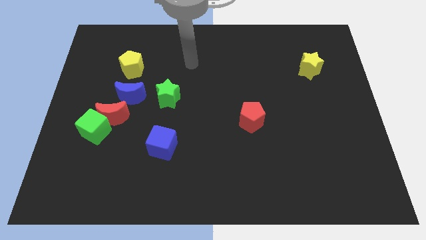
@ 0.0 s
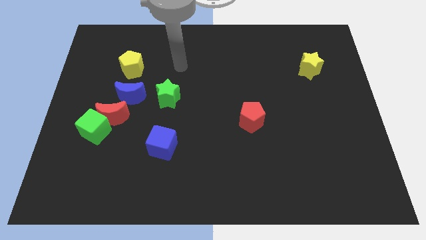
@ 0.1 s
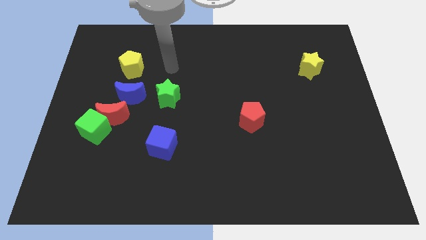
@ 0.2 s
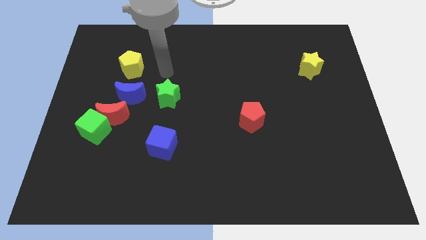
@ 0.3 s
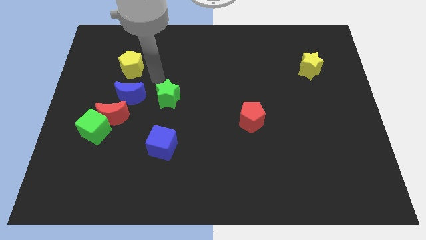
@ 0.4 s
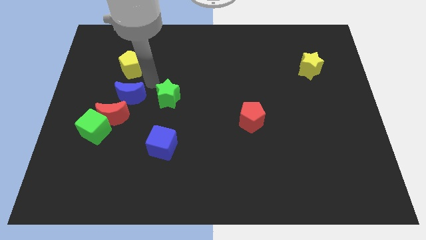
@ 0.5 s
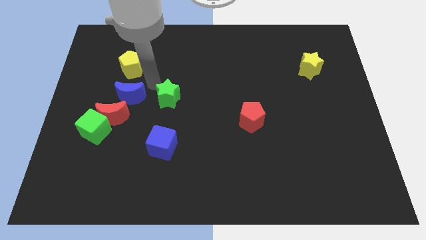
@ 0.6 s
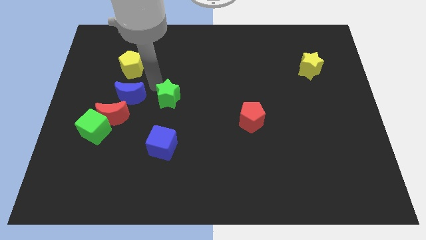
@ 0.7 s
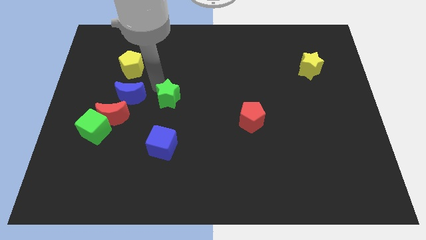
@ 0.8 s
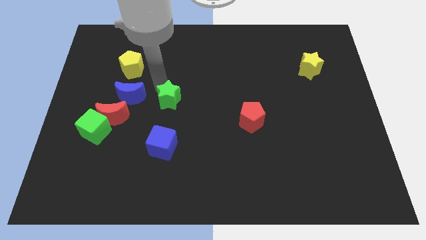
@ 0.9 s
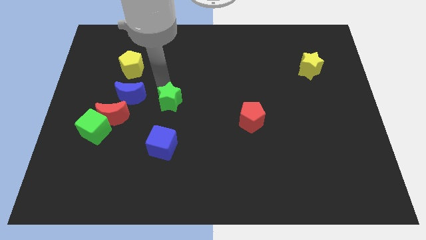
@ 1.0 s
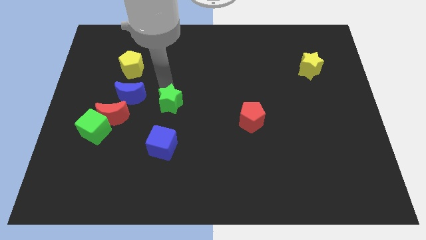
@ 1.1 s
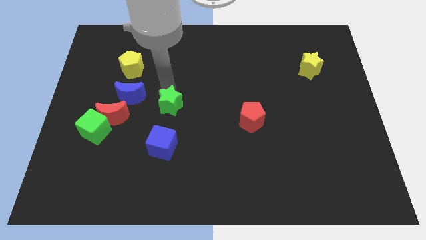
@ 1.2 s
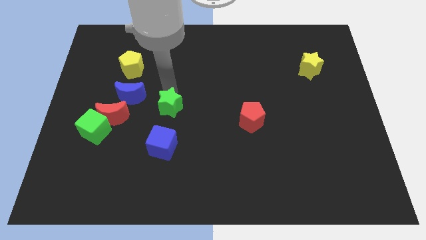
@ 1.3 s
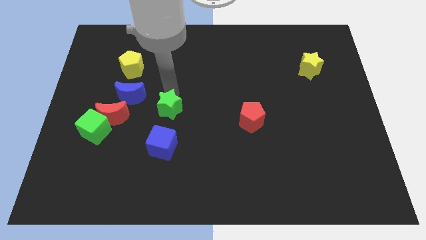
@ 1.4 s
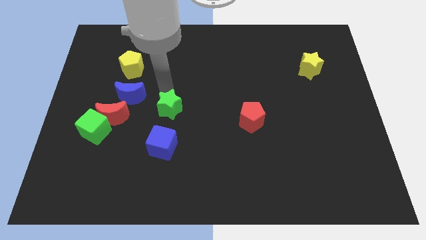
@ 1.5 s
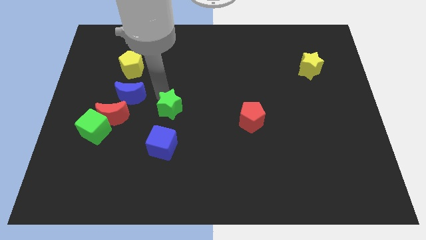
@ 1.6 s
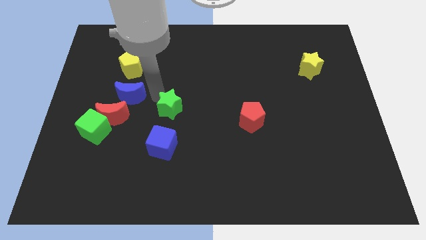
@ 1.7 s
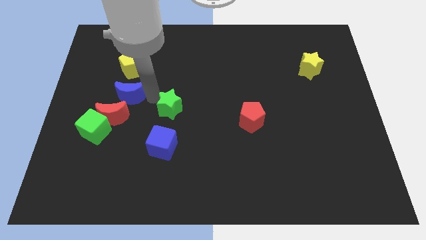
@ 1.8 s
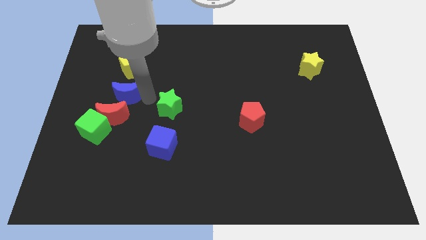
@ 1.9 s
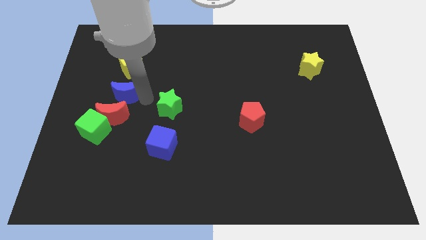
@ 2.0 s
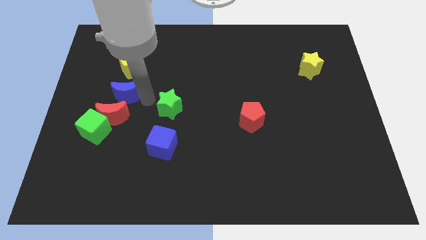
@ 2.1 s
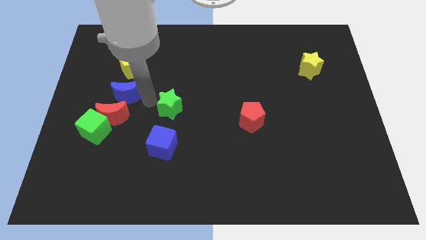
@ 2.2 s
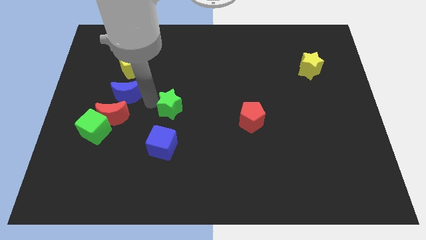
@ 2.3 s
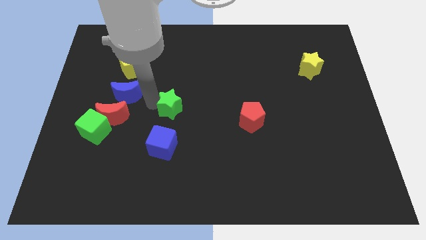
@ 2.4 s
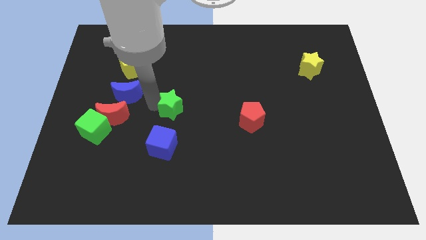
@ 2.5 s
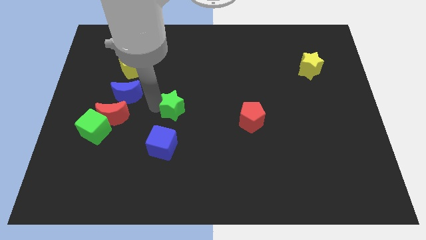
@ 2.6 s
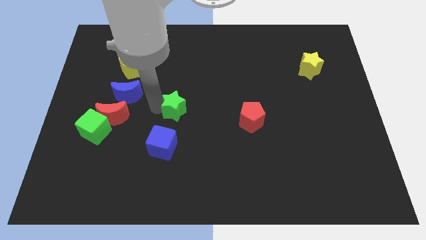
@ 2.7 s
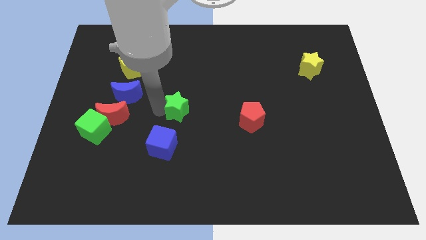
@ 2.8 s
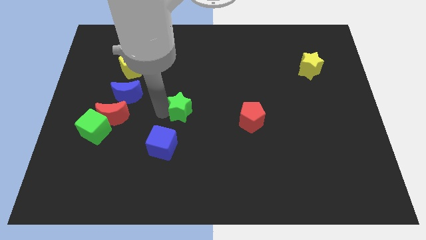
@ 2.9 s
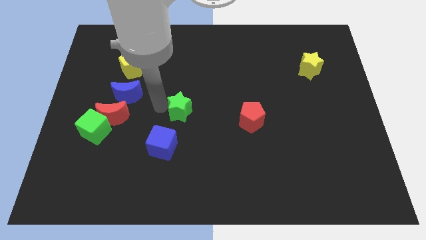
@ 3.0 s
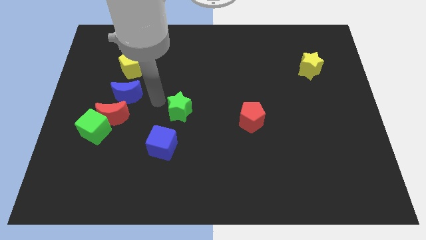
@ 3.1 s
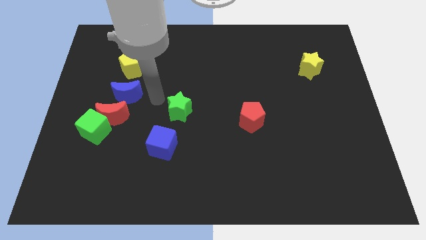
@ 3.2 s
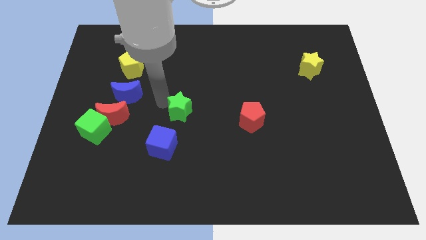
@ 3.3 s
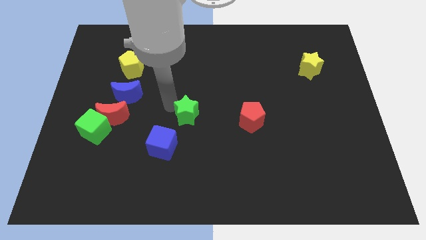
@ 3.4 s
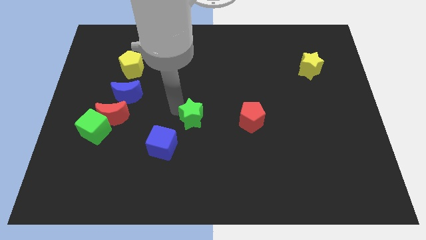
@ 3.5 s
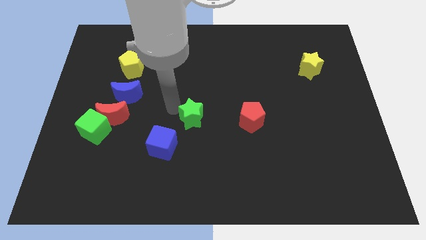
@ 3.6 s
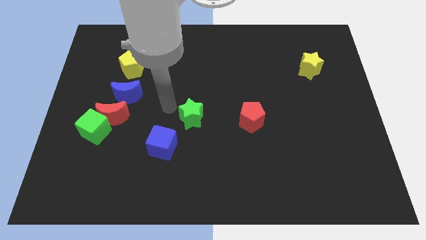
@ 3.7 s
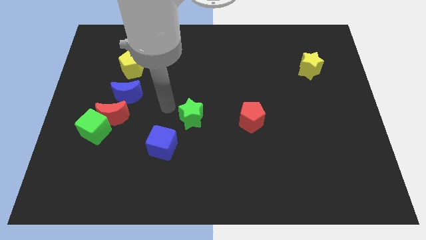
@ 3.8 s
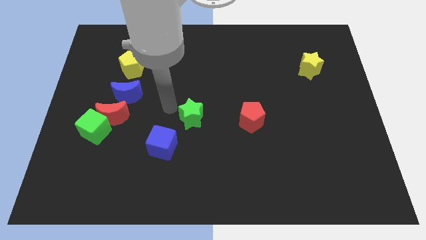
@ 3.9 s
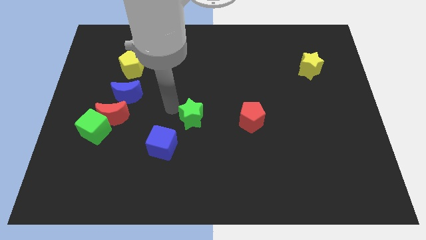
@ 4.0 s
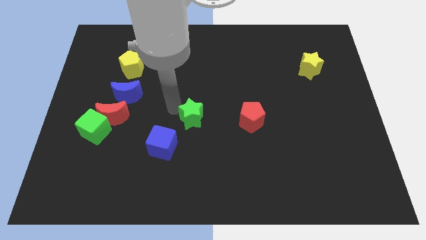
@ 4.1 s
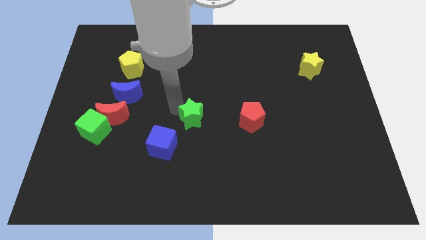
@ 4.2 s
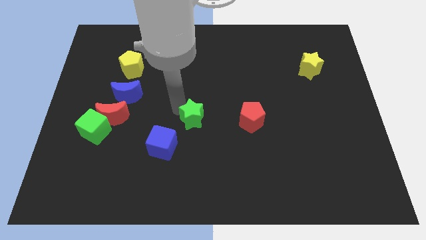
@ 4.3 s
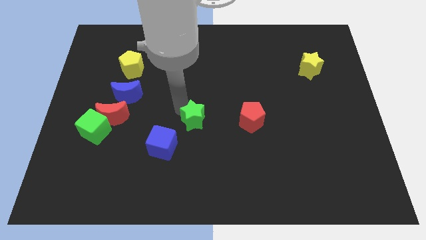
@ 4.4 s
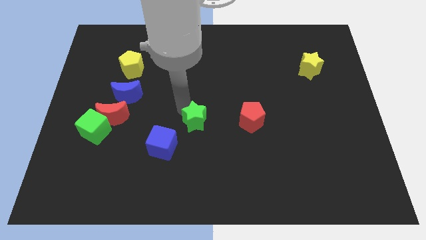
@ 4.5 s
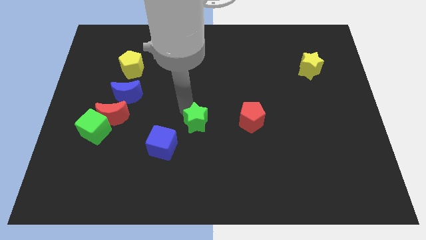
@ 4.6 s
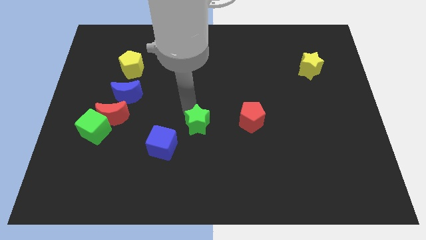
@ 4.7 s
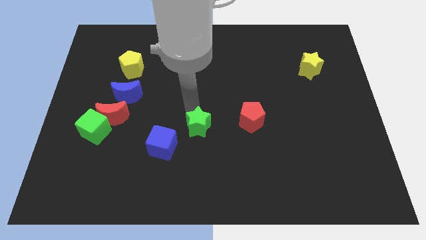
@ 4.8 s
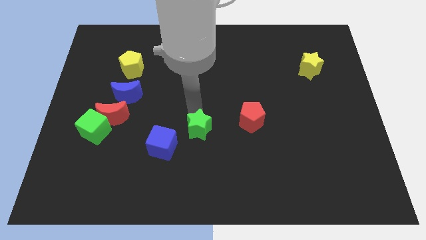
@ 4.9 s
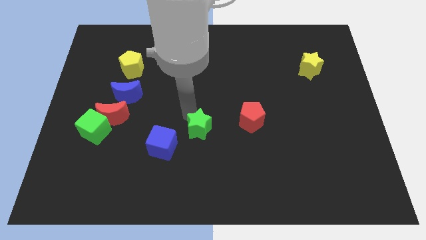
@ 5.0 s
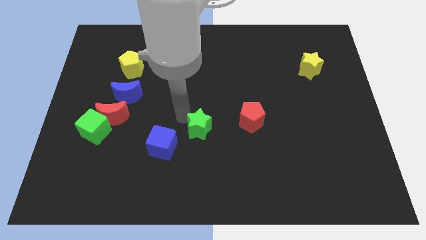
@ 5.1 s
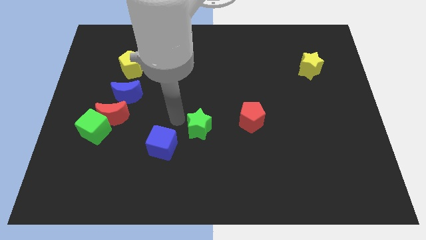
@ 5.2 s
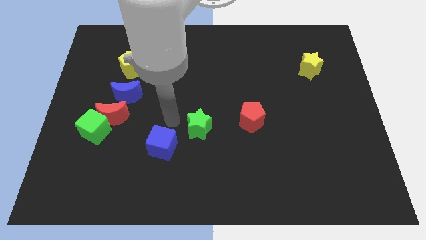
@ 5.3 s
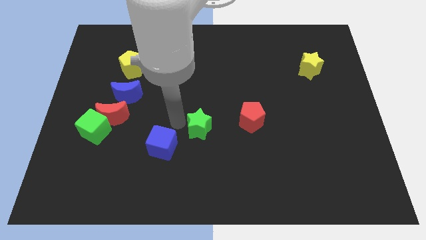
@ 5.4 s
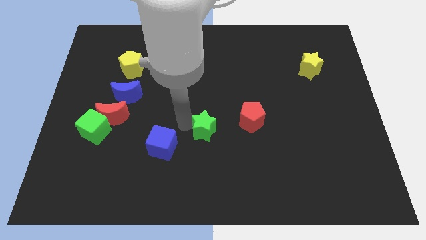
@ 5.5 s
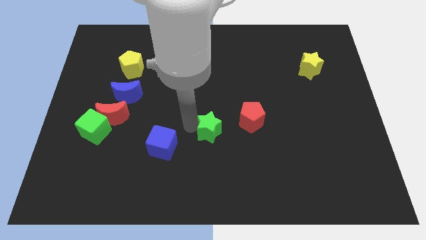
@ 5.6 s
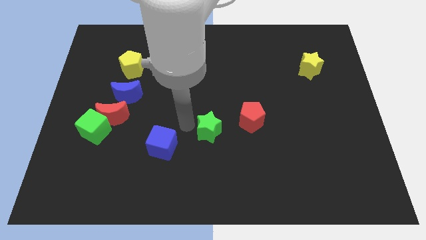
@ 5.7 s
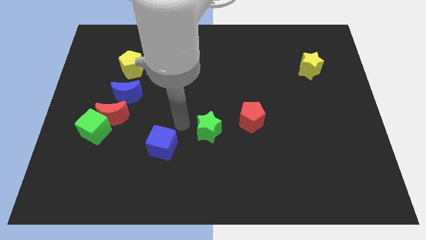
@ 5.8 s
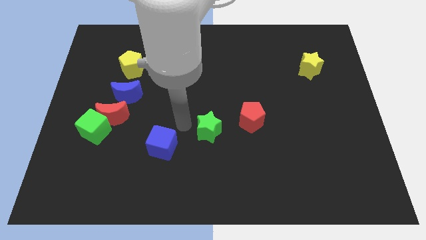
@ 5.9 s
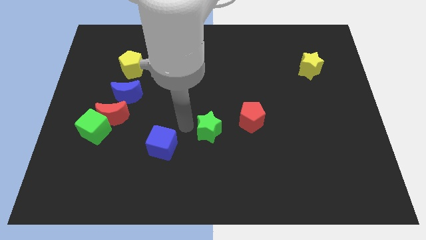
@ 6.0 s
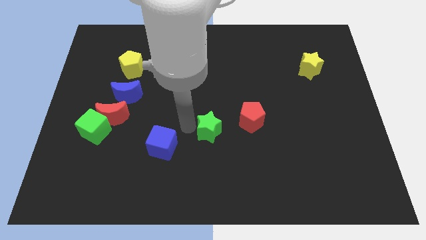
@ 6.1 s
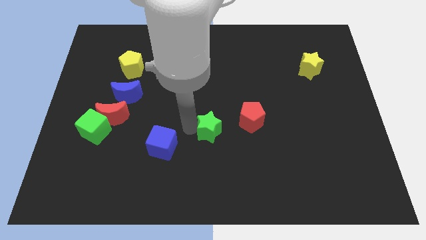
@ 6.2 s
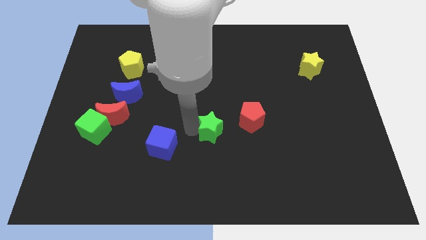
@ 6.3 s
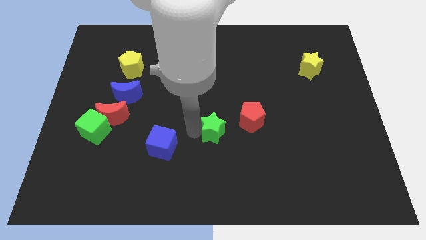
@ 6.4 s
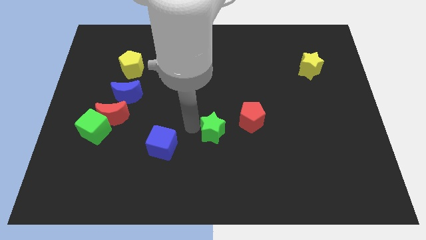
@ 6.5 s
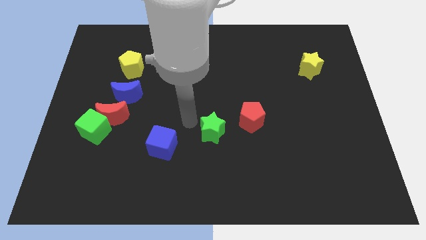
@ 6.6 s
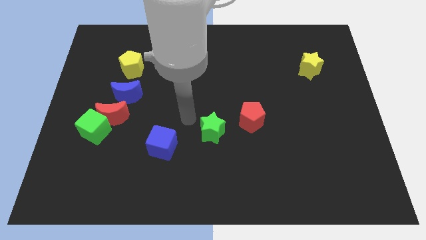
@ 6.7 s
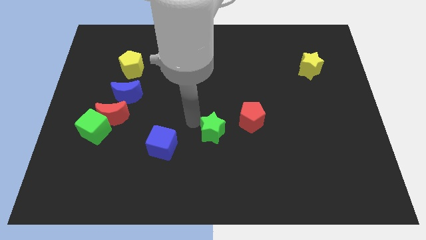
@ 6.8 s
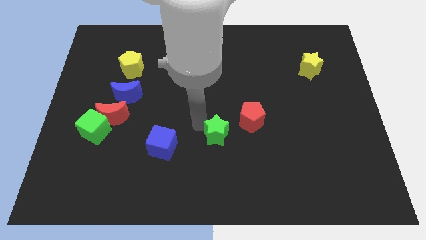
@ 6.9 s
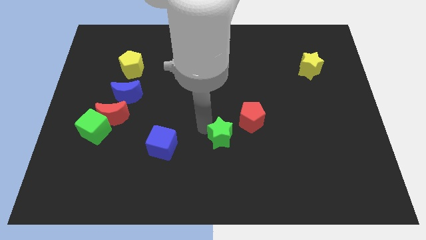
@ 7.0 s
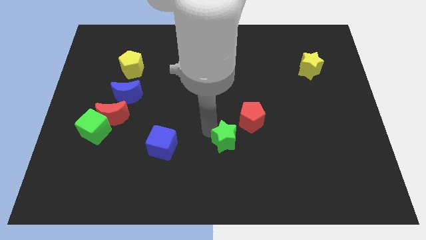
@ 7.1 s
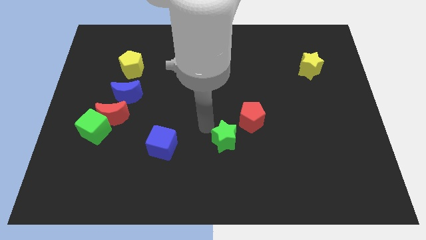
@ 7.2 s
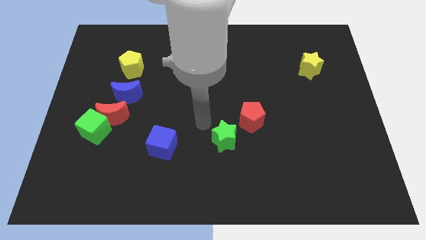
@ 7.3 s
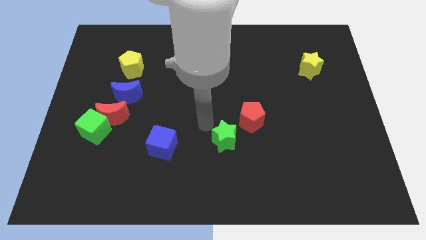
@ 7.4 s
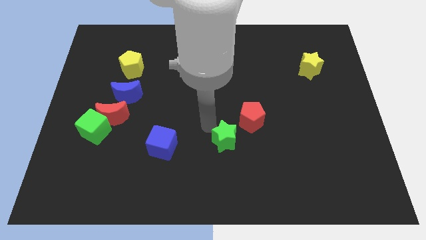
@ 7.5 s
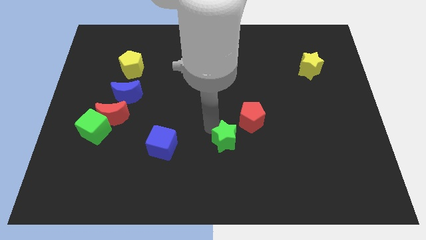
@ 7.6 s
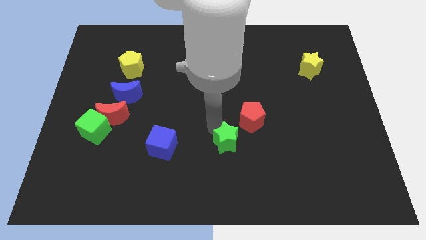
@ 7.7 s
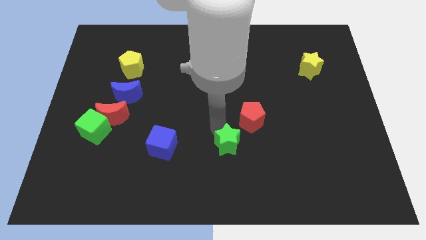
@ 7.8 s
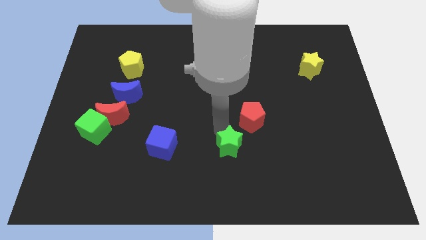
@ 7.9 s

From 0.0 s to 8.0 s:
move the green star down and then right
